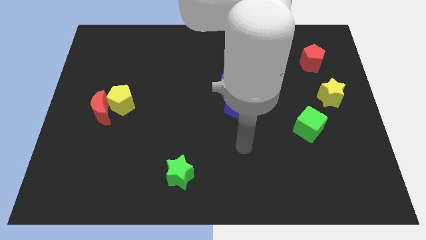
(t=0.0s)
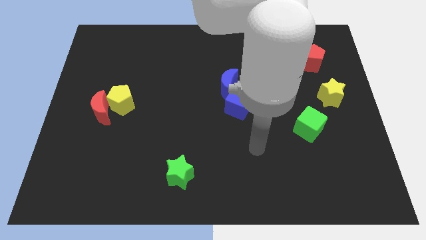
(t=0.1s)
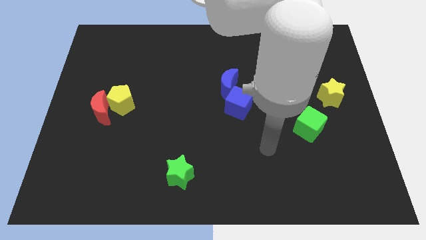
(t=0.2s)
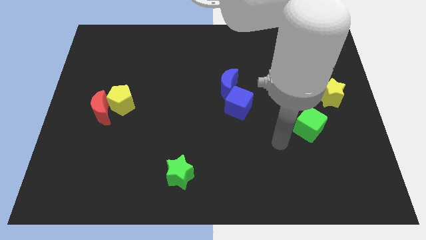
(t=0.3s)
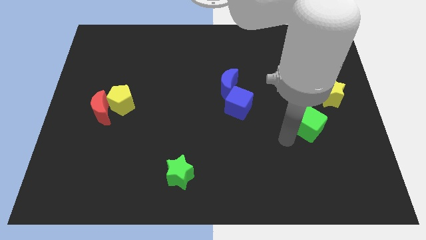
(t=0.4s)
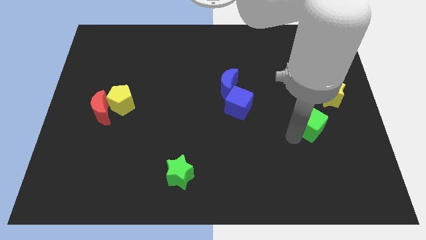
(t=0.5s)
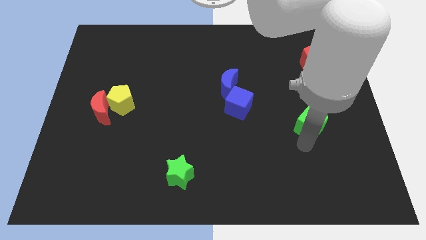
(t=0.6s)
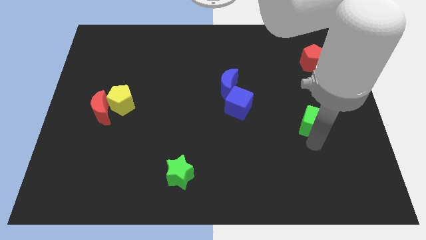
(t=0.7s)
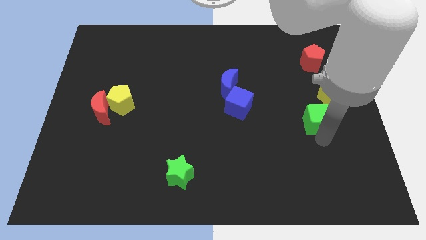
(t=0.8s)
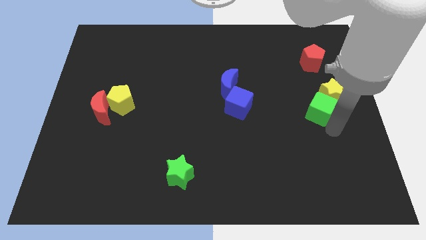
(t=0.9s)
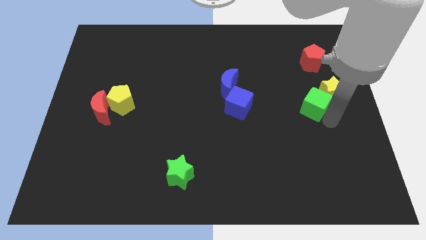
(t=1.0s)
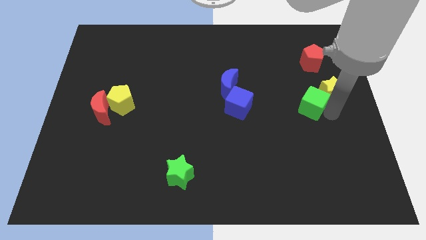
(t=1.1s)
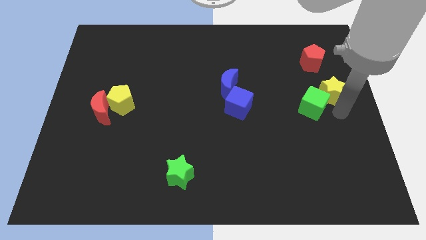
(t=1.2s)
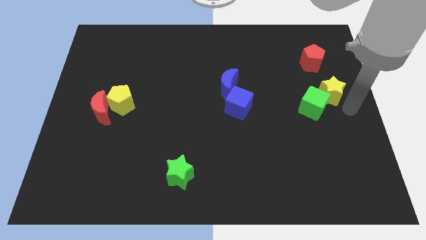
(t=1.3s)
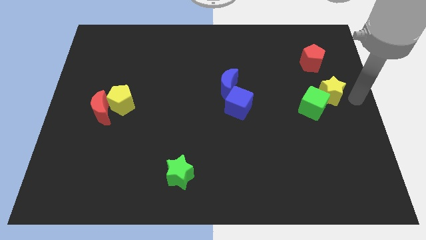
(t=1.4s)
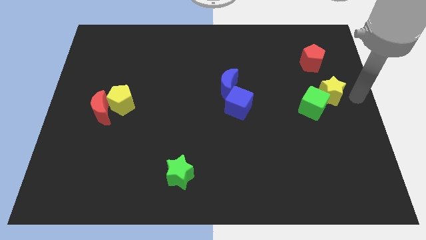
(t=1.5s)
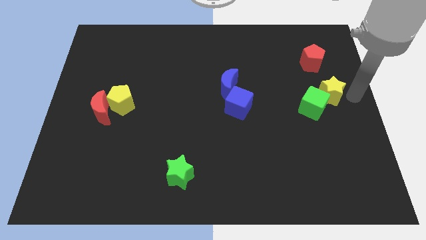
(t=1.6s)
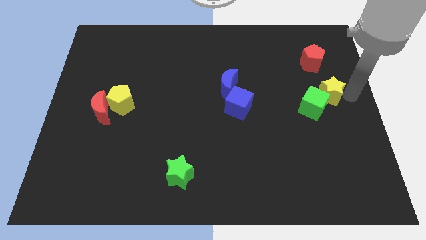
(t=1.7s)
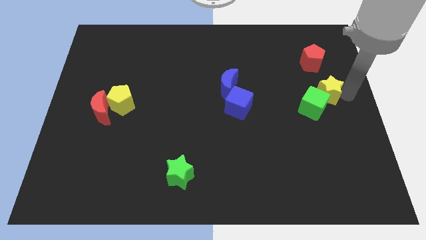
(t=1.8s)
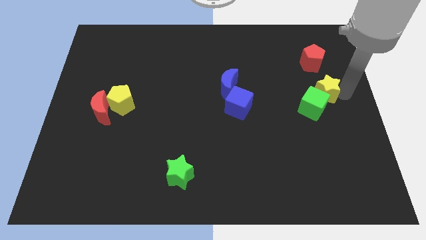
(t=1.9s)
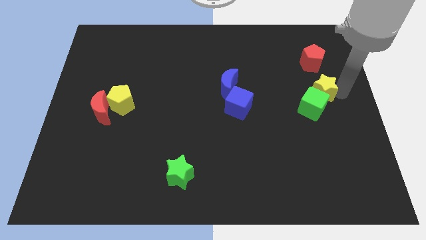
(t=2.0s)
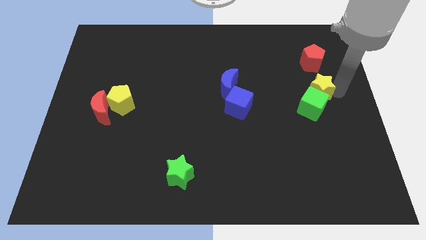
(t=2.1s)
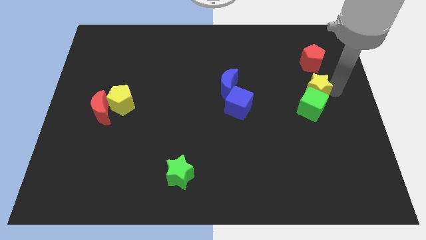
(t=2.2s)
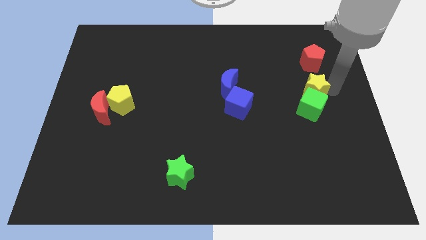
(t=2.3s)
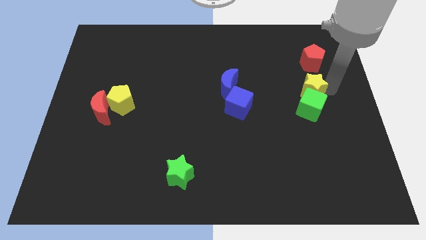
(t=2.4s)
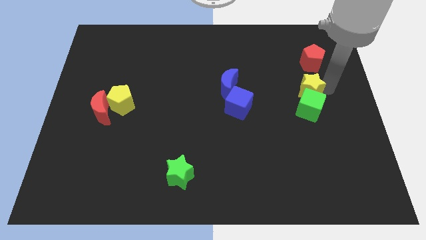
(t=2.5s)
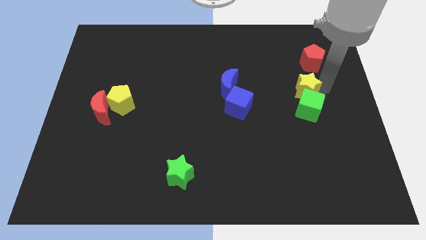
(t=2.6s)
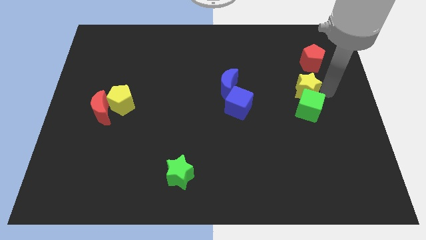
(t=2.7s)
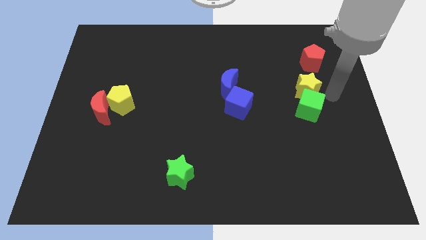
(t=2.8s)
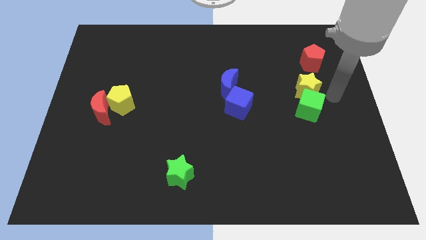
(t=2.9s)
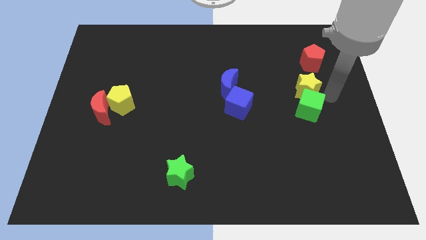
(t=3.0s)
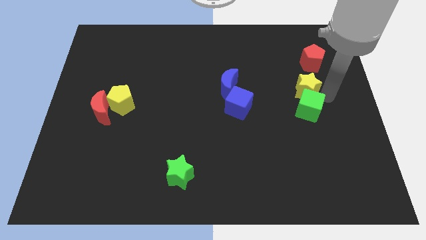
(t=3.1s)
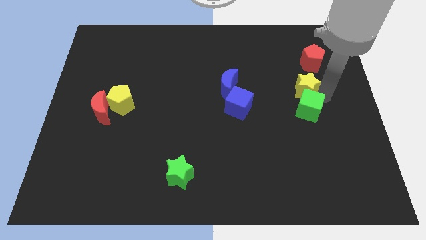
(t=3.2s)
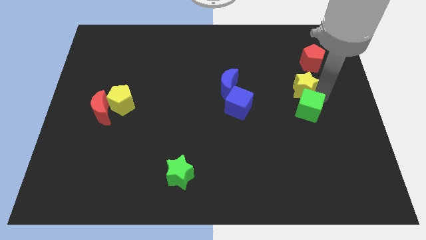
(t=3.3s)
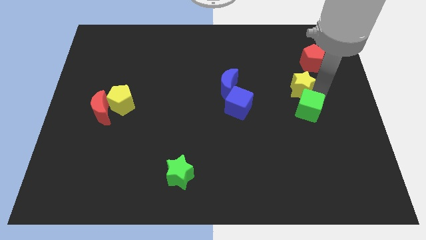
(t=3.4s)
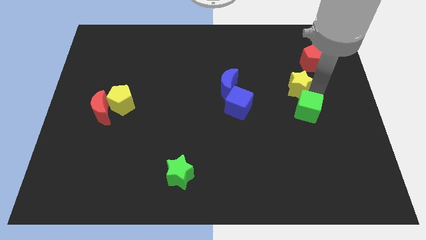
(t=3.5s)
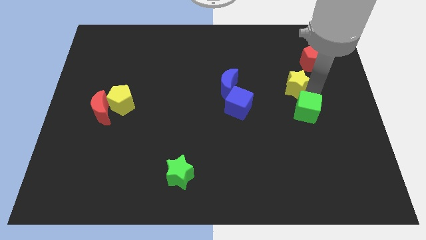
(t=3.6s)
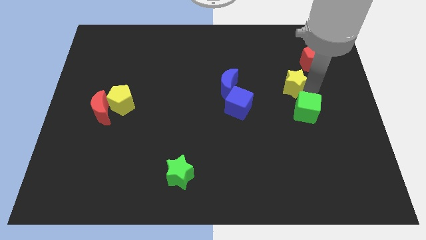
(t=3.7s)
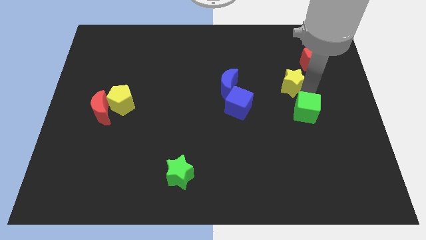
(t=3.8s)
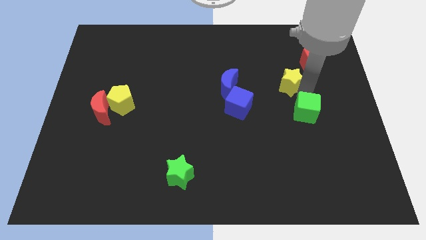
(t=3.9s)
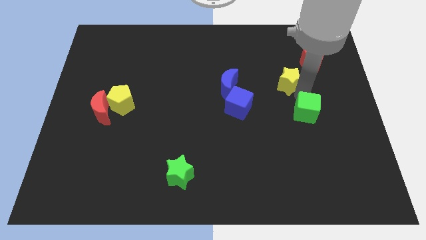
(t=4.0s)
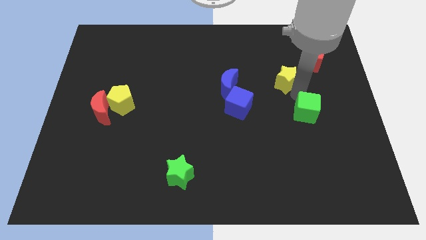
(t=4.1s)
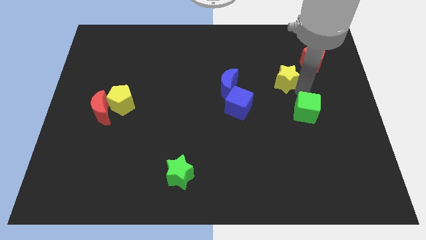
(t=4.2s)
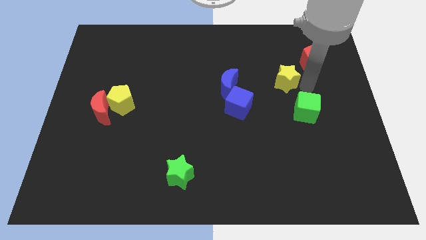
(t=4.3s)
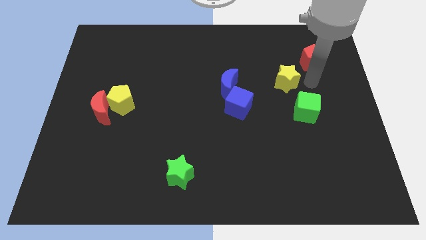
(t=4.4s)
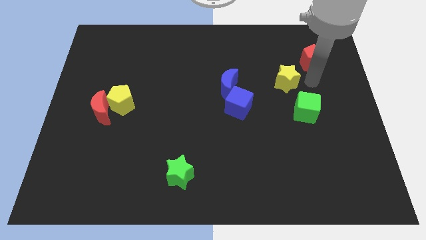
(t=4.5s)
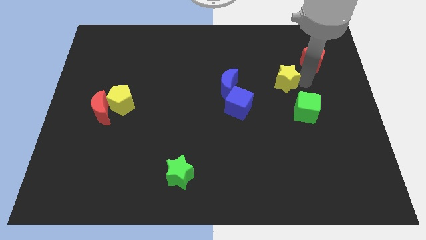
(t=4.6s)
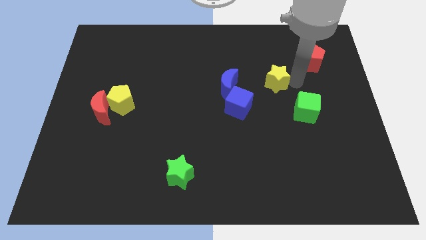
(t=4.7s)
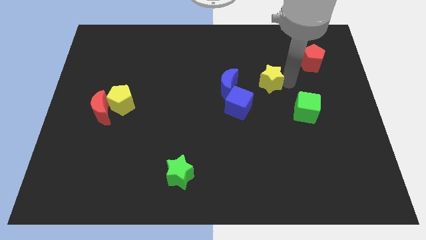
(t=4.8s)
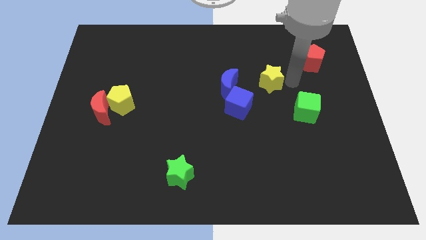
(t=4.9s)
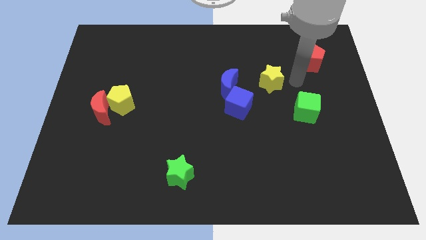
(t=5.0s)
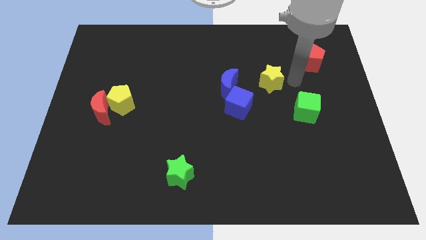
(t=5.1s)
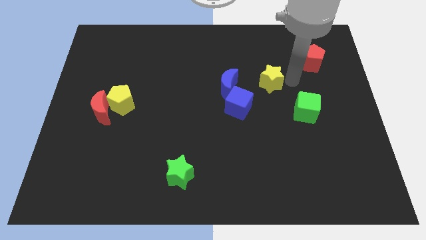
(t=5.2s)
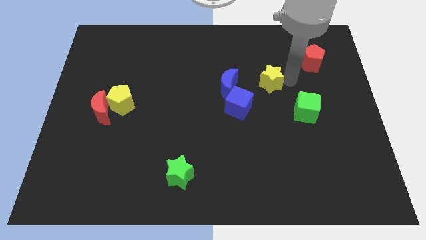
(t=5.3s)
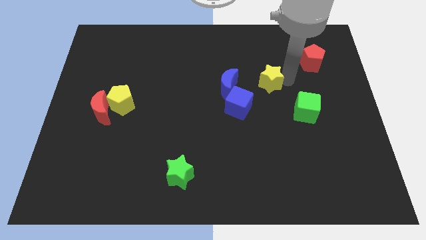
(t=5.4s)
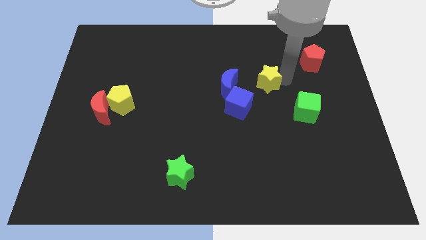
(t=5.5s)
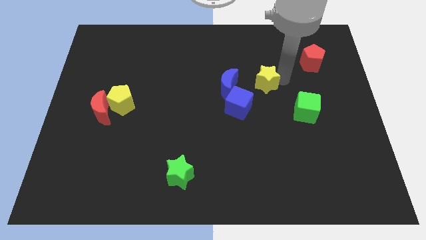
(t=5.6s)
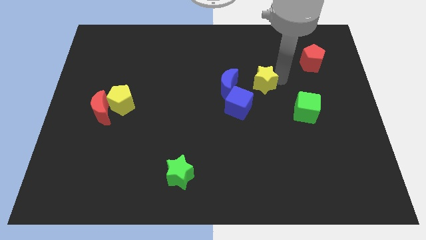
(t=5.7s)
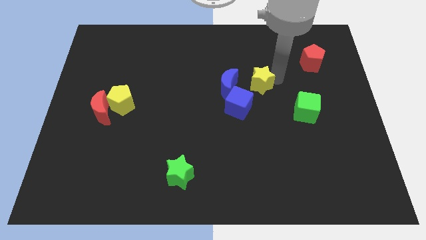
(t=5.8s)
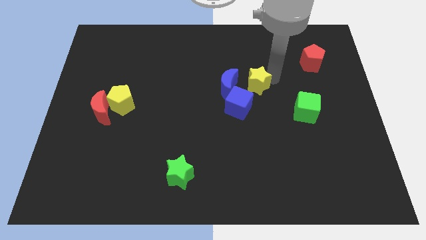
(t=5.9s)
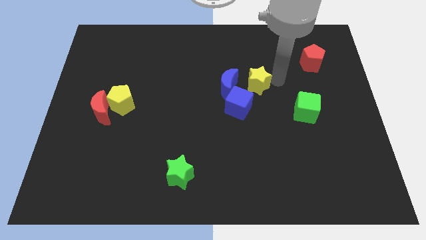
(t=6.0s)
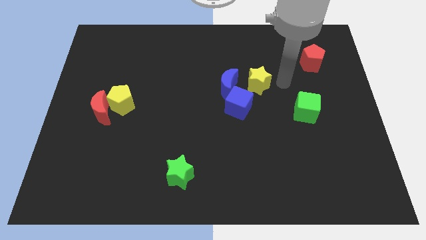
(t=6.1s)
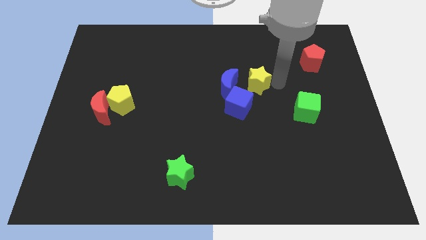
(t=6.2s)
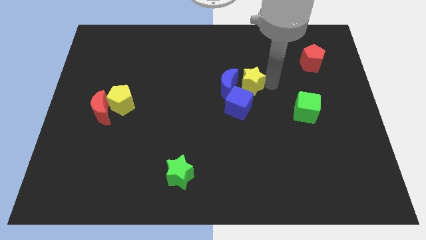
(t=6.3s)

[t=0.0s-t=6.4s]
move the yellow star next to the blue moon
